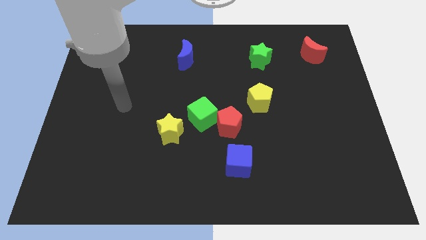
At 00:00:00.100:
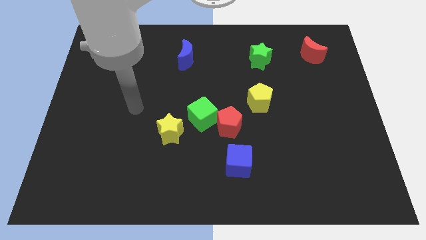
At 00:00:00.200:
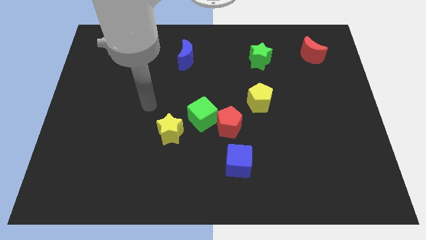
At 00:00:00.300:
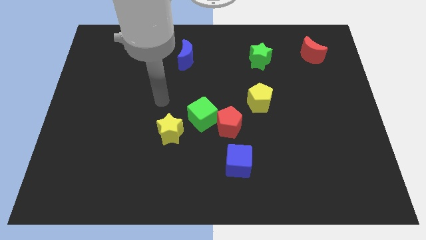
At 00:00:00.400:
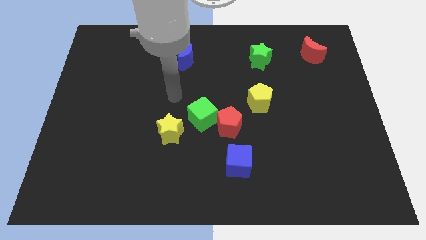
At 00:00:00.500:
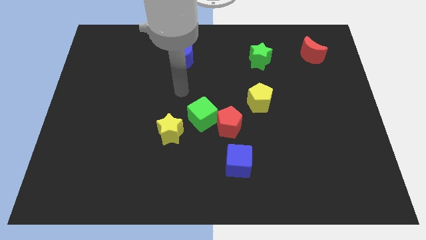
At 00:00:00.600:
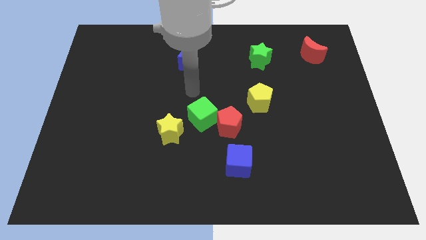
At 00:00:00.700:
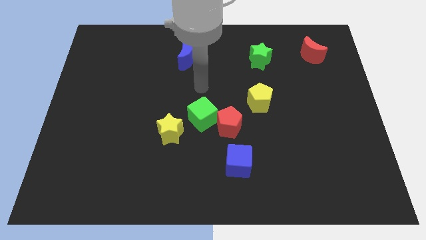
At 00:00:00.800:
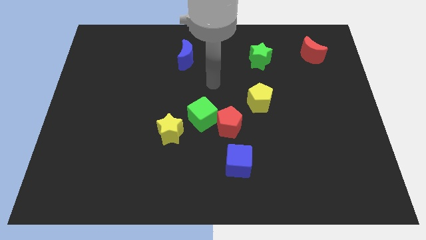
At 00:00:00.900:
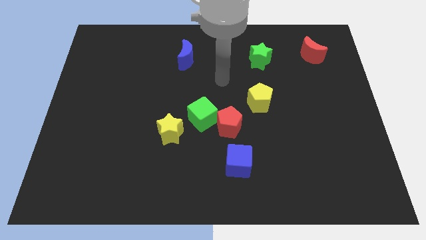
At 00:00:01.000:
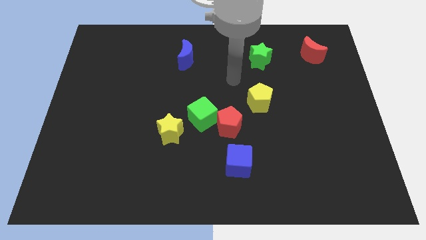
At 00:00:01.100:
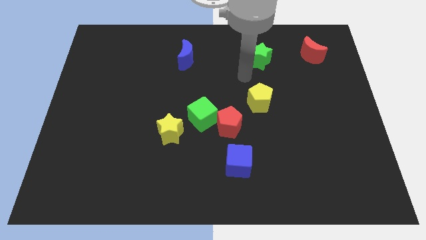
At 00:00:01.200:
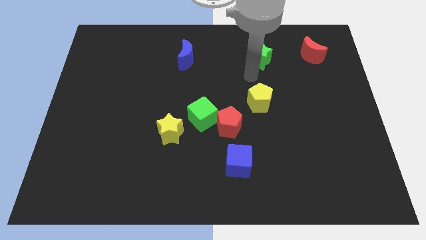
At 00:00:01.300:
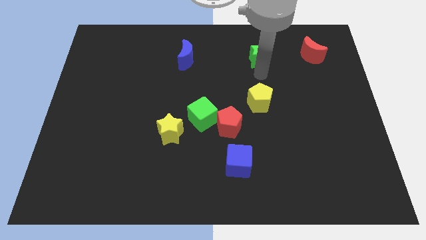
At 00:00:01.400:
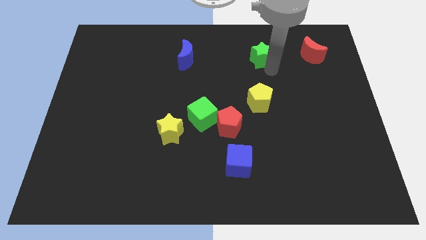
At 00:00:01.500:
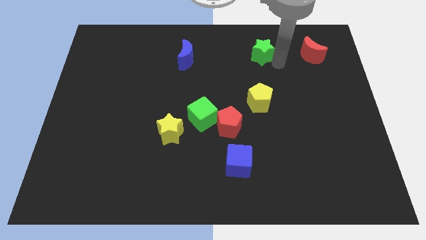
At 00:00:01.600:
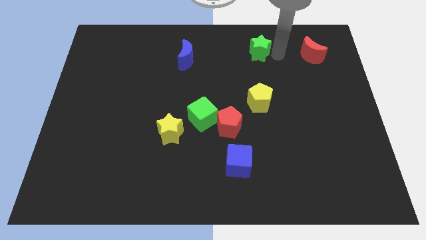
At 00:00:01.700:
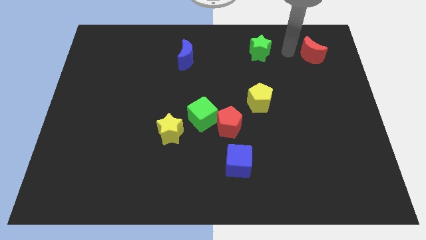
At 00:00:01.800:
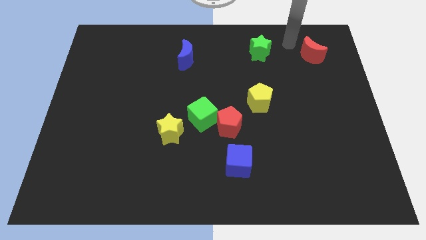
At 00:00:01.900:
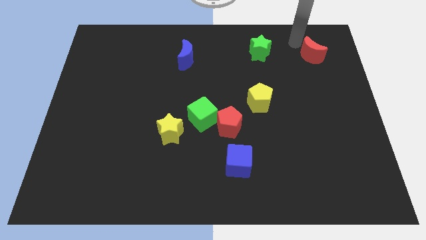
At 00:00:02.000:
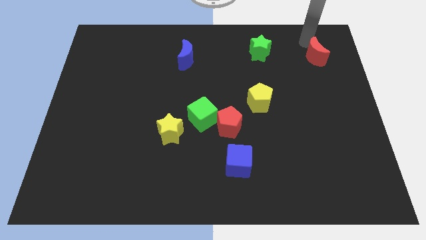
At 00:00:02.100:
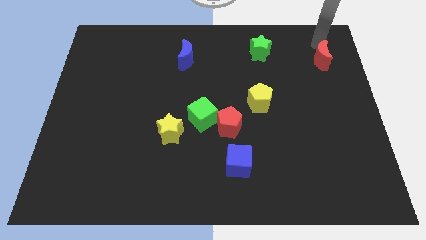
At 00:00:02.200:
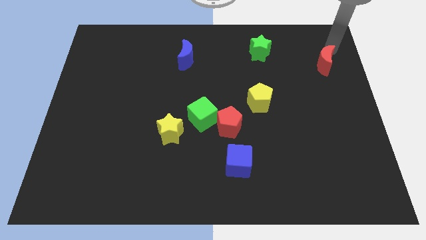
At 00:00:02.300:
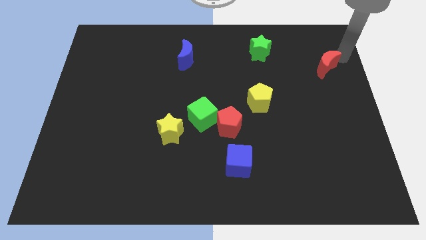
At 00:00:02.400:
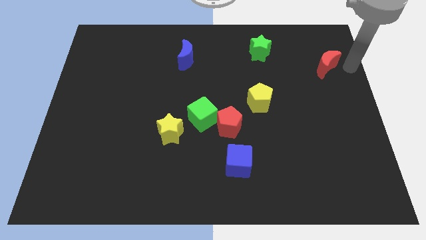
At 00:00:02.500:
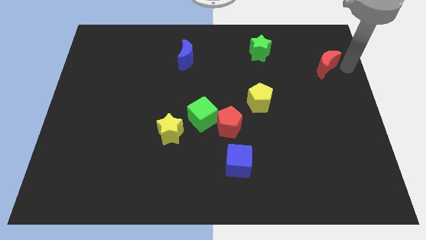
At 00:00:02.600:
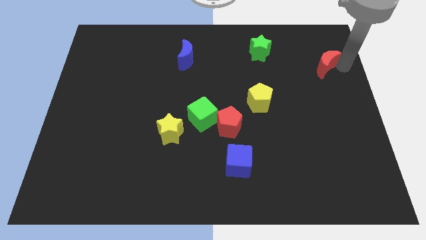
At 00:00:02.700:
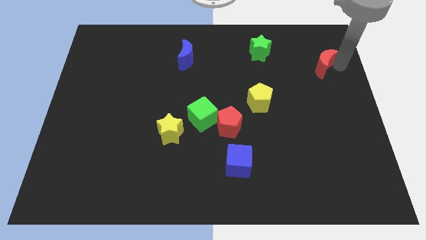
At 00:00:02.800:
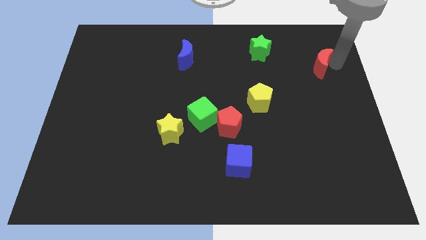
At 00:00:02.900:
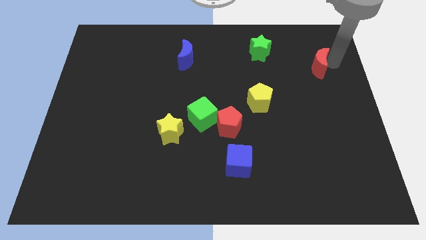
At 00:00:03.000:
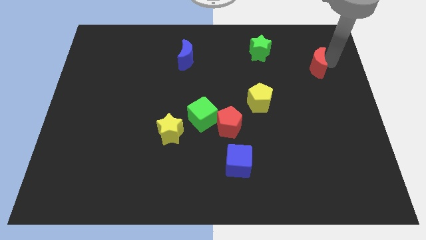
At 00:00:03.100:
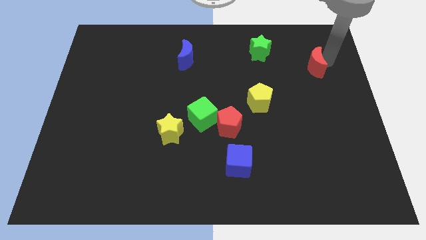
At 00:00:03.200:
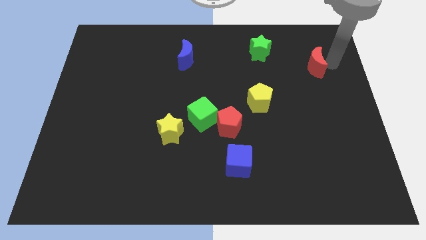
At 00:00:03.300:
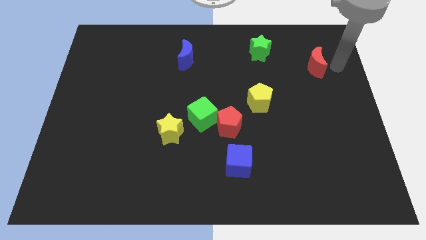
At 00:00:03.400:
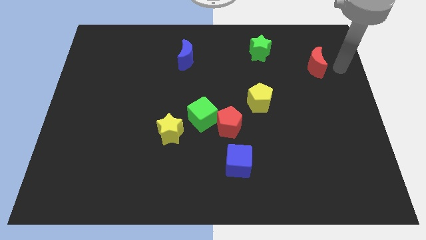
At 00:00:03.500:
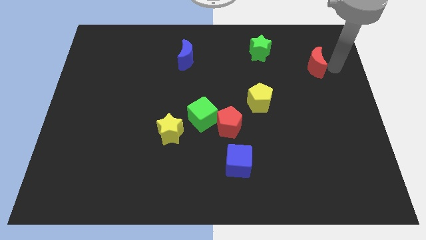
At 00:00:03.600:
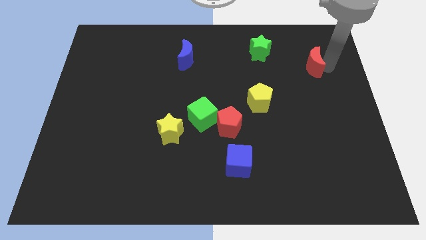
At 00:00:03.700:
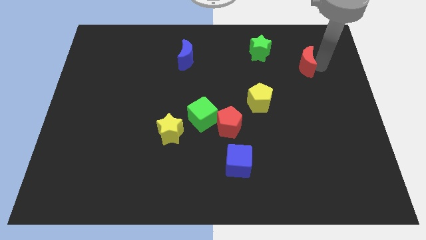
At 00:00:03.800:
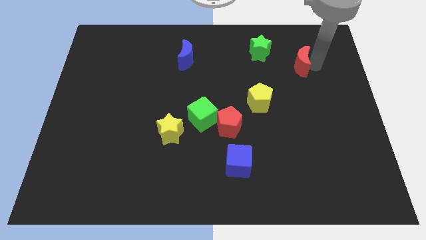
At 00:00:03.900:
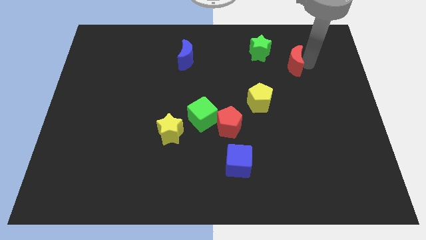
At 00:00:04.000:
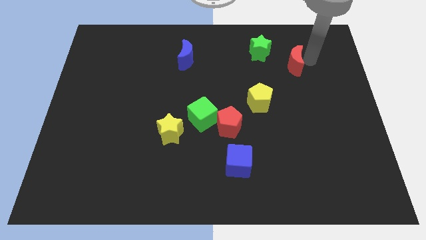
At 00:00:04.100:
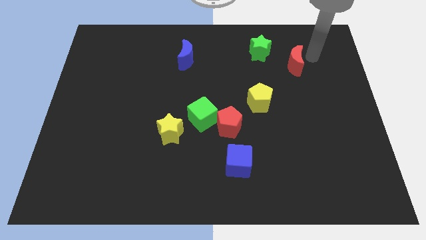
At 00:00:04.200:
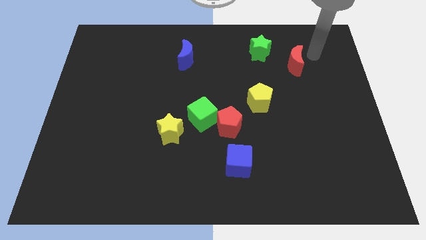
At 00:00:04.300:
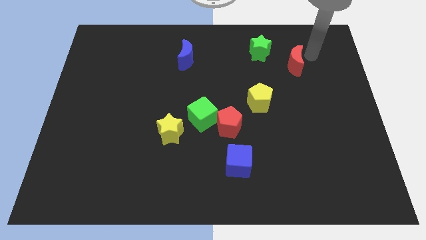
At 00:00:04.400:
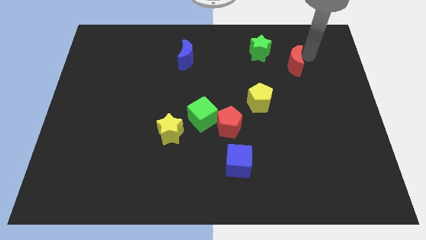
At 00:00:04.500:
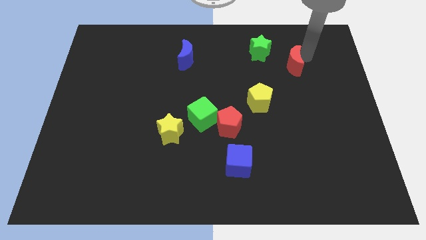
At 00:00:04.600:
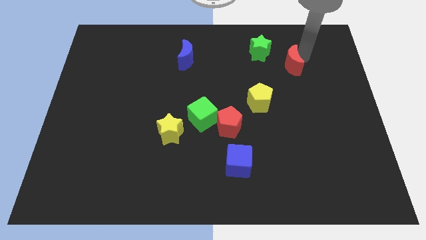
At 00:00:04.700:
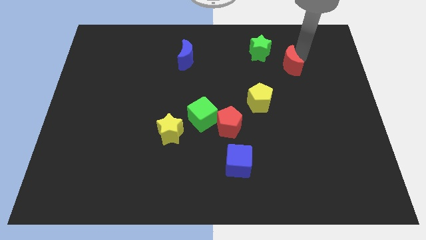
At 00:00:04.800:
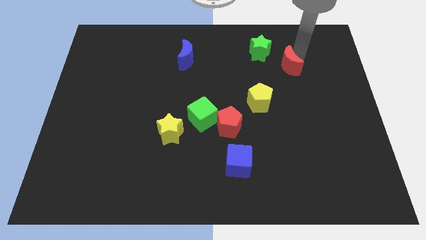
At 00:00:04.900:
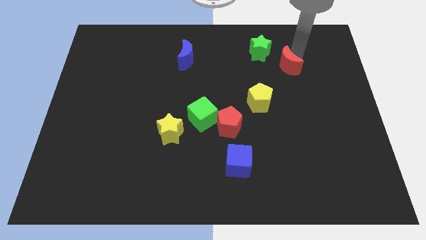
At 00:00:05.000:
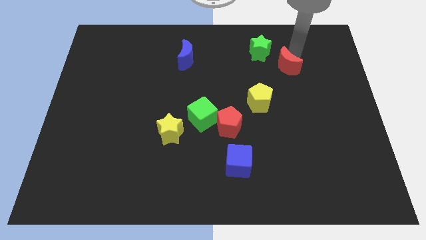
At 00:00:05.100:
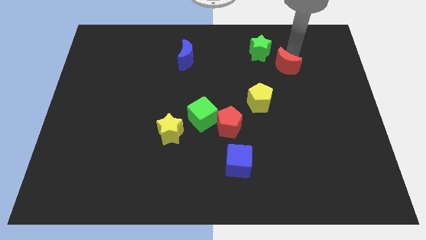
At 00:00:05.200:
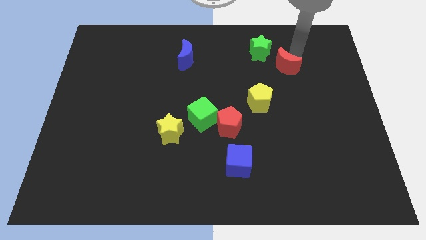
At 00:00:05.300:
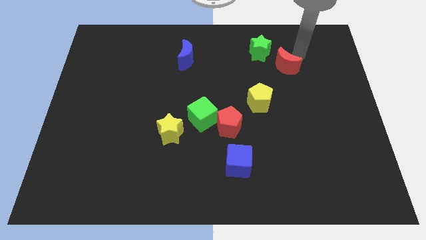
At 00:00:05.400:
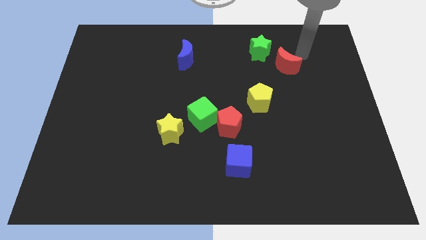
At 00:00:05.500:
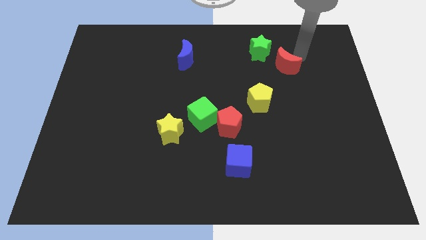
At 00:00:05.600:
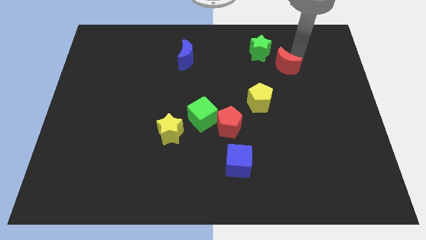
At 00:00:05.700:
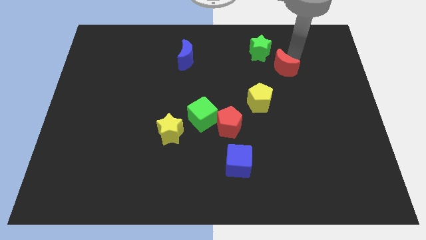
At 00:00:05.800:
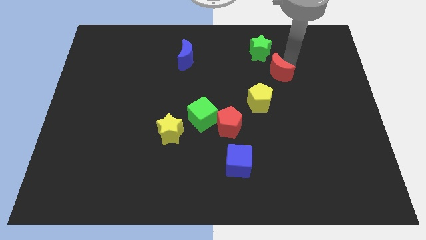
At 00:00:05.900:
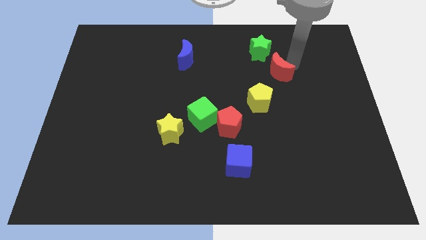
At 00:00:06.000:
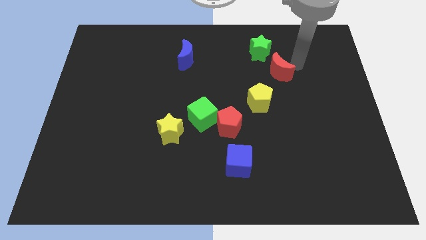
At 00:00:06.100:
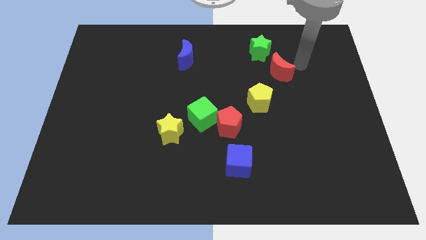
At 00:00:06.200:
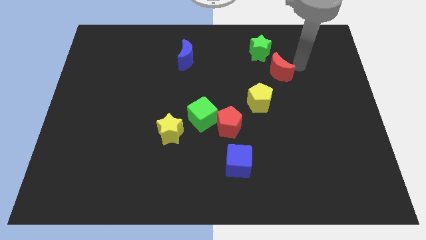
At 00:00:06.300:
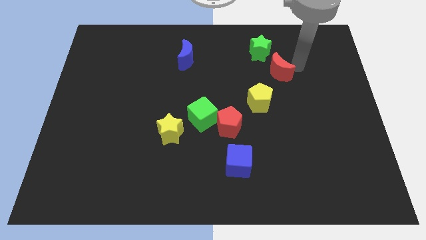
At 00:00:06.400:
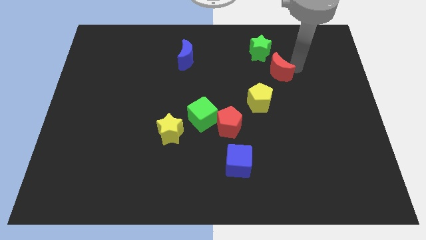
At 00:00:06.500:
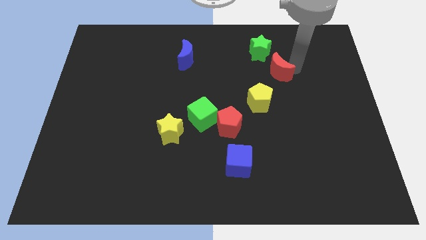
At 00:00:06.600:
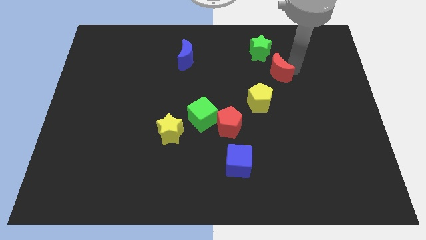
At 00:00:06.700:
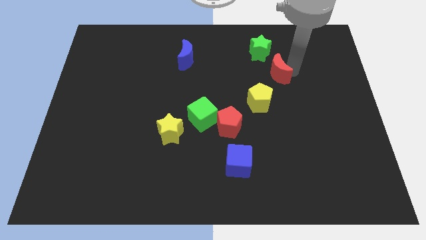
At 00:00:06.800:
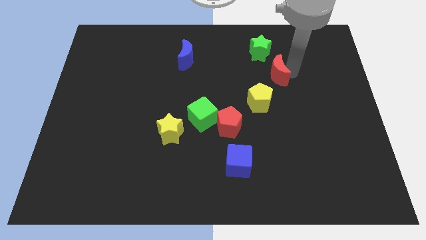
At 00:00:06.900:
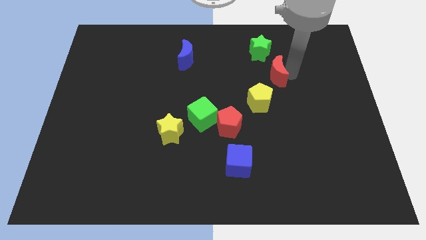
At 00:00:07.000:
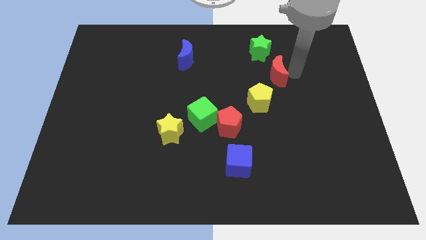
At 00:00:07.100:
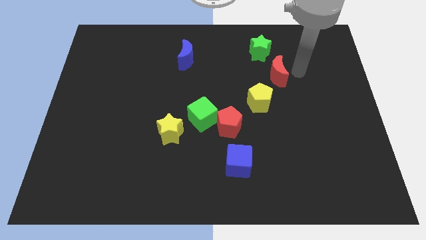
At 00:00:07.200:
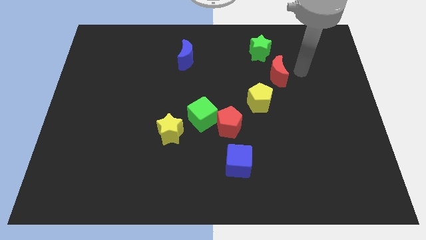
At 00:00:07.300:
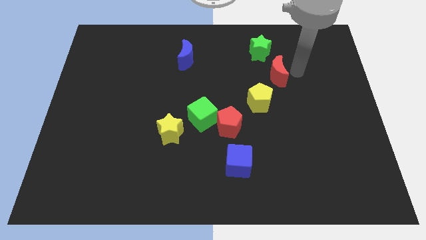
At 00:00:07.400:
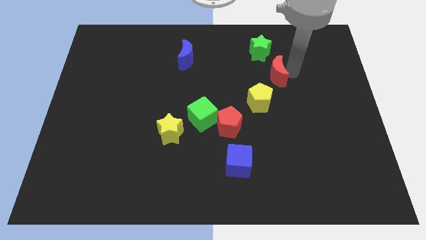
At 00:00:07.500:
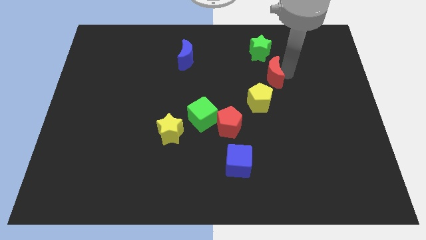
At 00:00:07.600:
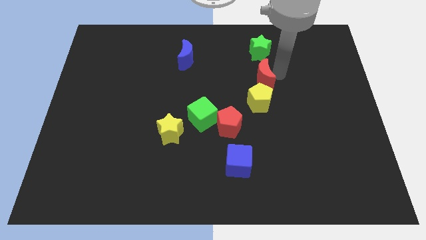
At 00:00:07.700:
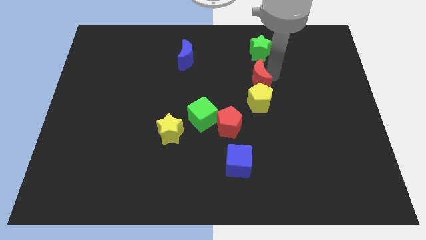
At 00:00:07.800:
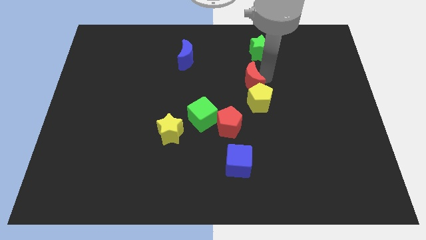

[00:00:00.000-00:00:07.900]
move the red moon to the top left of the yellow pentagon
